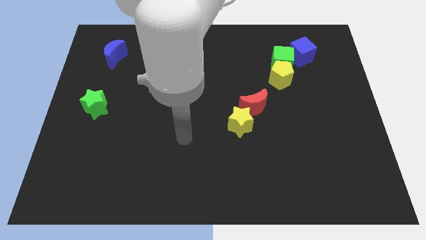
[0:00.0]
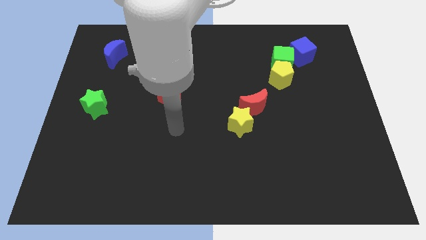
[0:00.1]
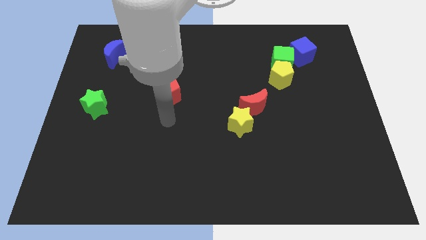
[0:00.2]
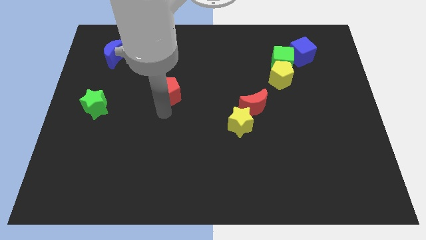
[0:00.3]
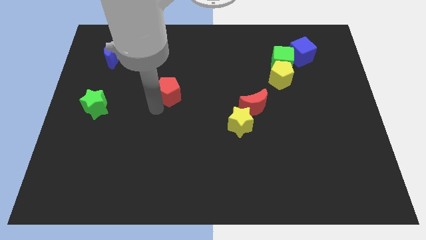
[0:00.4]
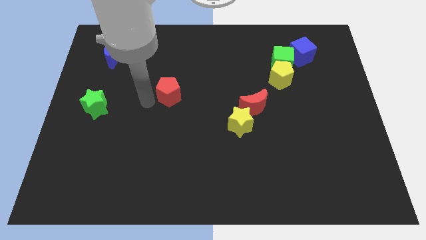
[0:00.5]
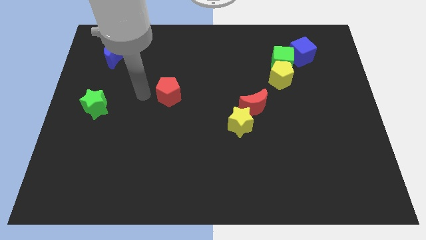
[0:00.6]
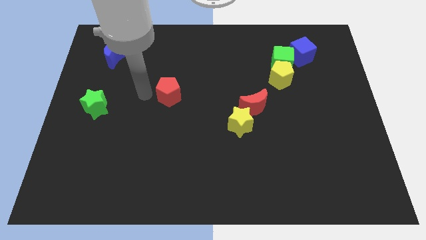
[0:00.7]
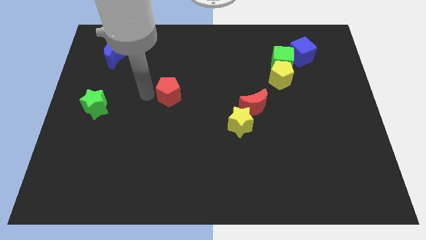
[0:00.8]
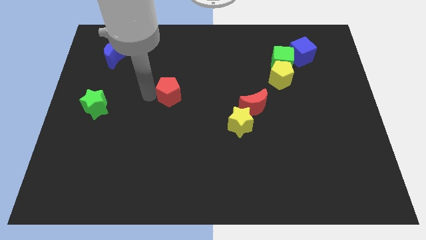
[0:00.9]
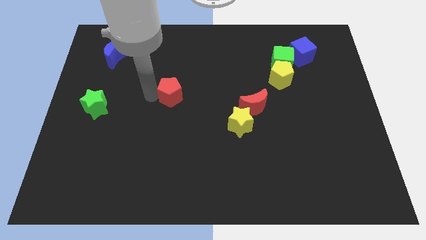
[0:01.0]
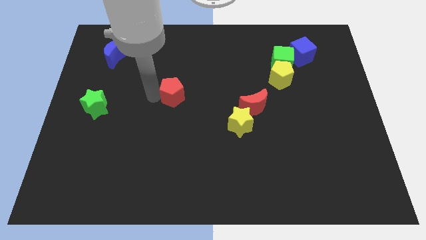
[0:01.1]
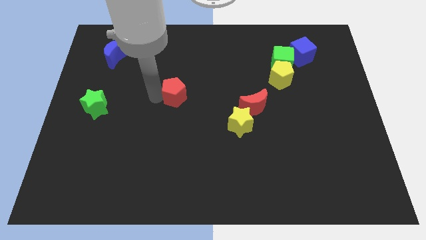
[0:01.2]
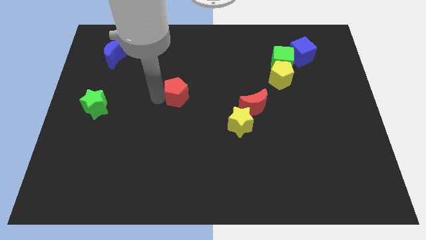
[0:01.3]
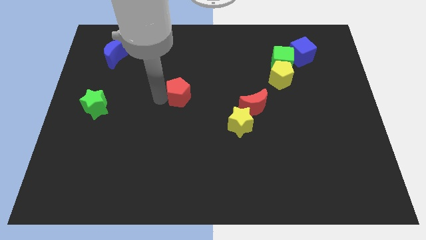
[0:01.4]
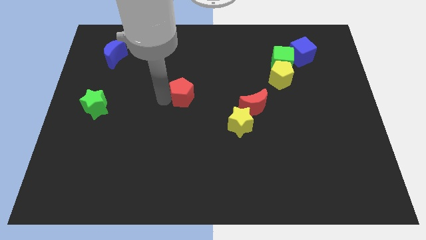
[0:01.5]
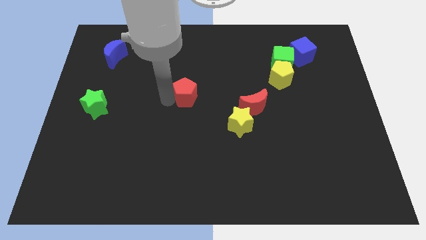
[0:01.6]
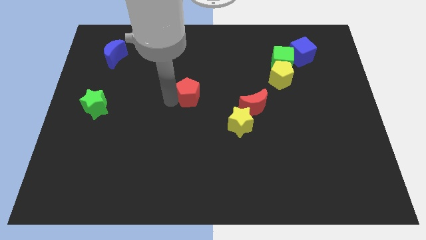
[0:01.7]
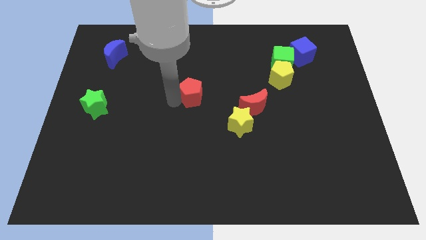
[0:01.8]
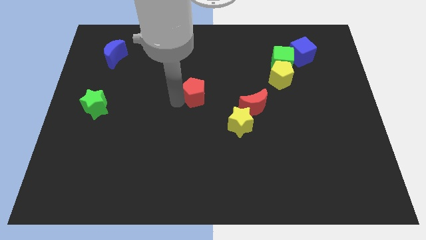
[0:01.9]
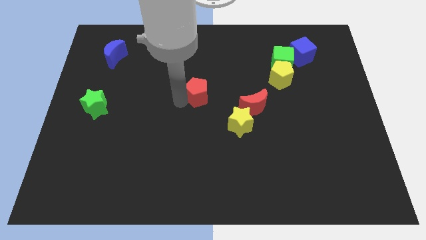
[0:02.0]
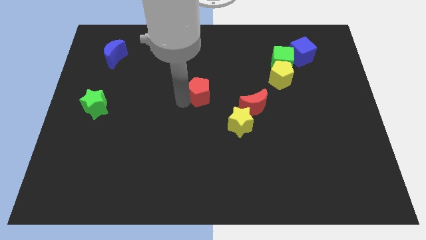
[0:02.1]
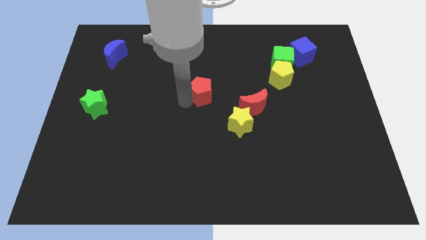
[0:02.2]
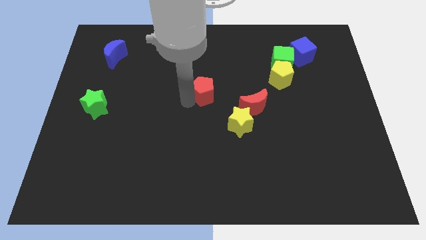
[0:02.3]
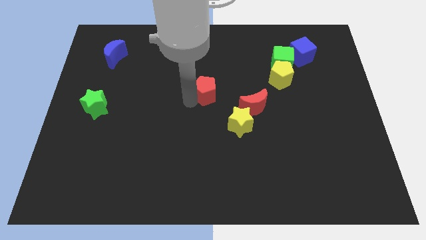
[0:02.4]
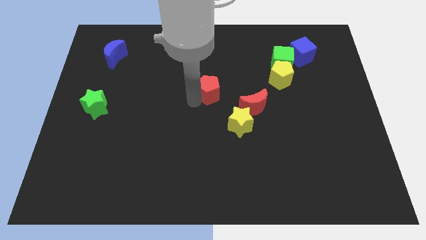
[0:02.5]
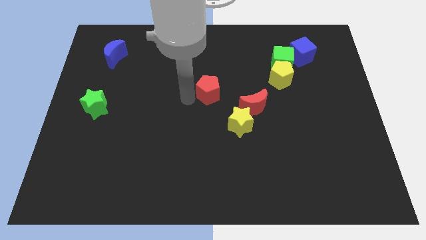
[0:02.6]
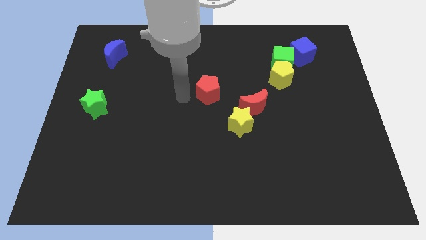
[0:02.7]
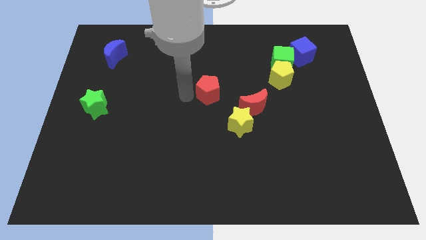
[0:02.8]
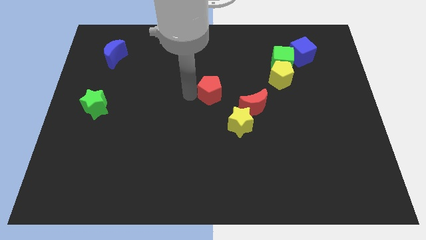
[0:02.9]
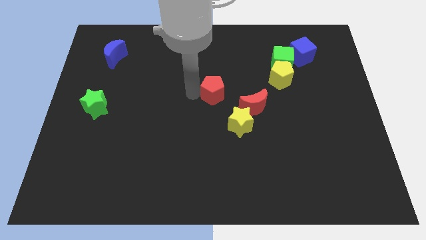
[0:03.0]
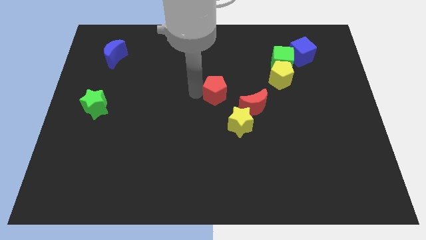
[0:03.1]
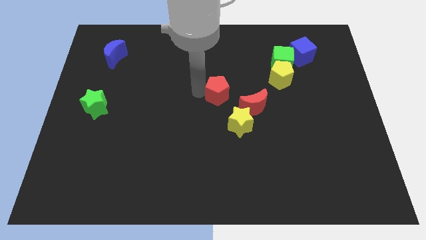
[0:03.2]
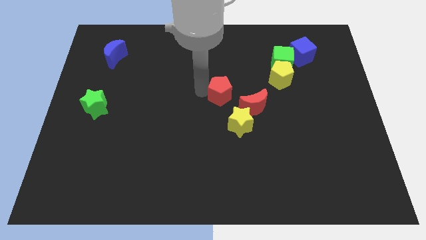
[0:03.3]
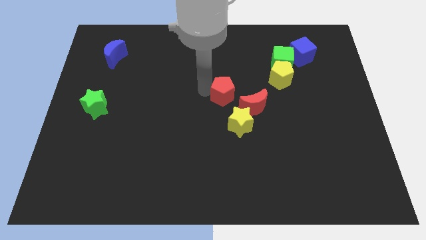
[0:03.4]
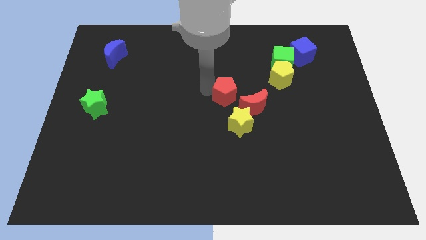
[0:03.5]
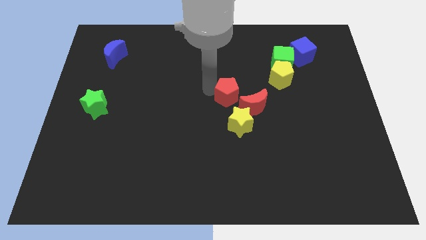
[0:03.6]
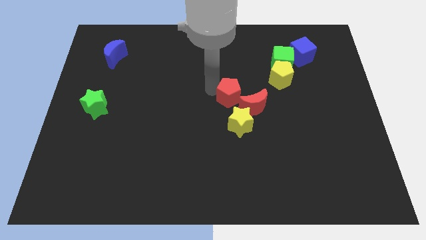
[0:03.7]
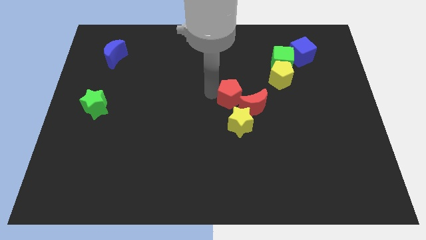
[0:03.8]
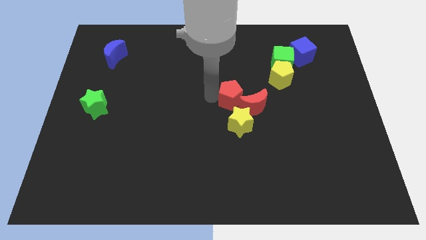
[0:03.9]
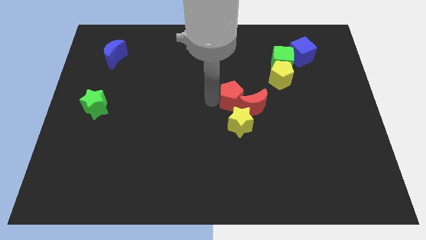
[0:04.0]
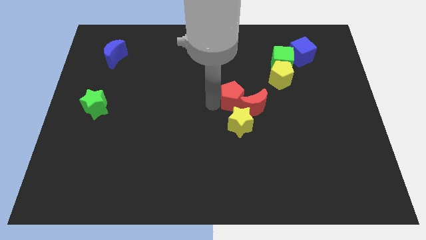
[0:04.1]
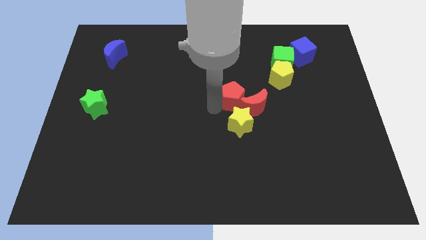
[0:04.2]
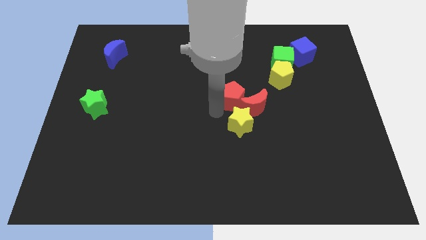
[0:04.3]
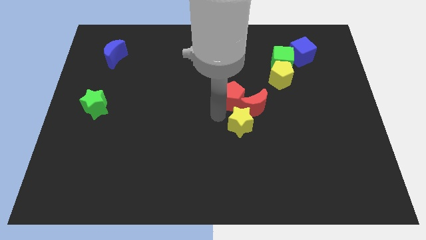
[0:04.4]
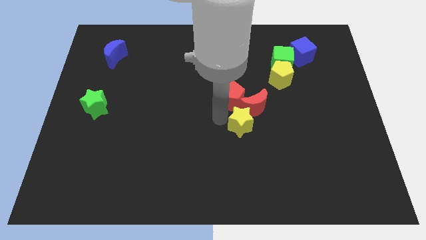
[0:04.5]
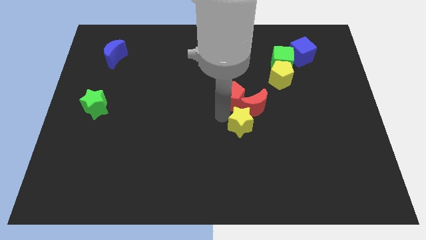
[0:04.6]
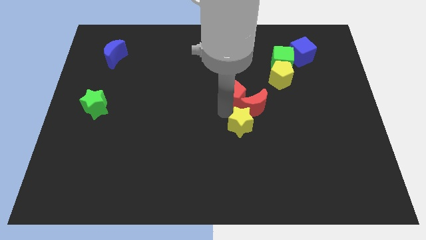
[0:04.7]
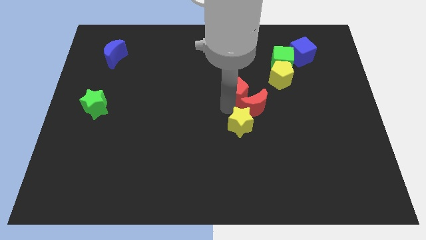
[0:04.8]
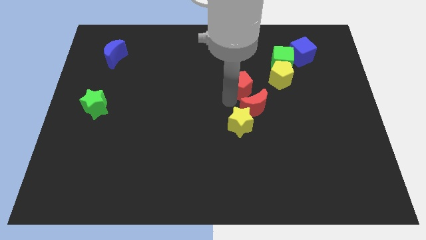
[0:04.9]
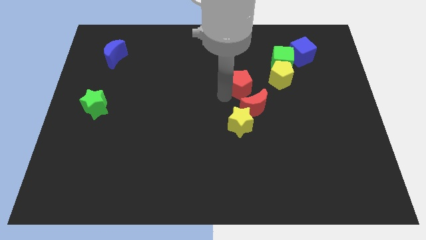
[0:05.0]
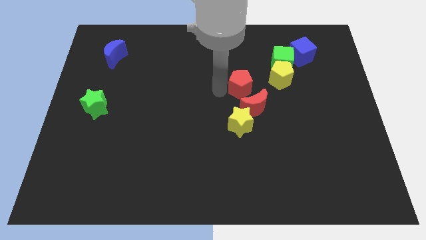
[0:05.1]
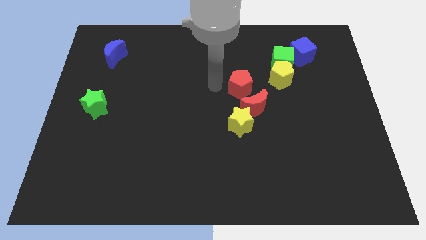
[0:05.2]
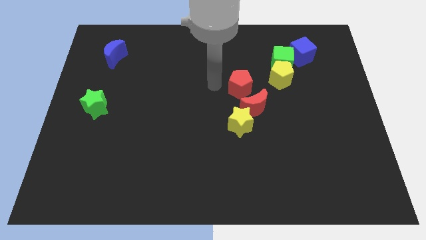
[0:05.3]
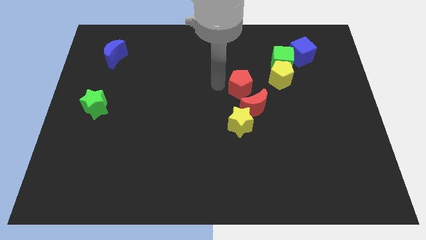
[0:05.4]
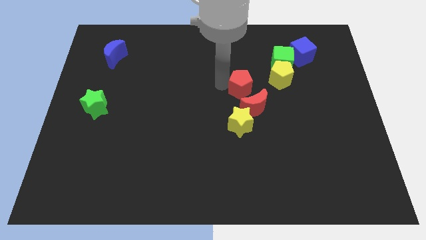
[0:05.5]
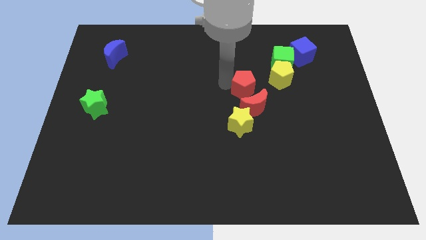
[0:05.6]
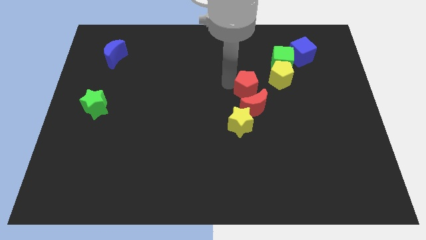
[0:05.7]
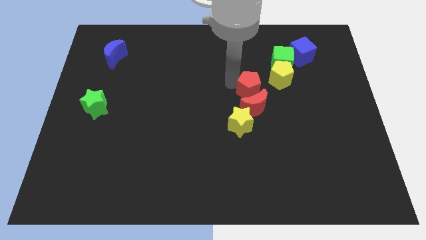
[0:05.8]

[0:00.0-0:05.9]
put the red pentagon to the top right side of the red moon

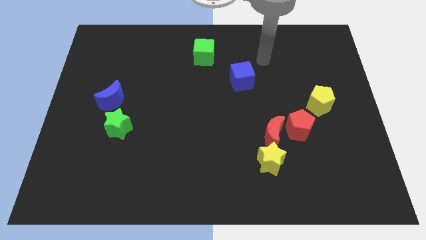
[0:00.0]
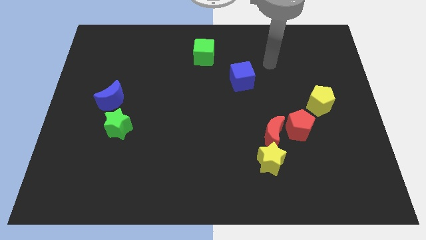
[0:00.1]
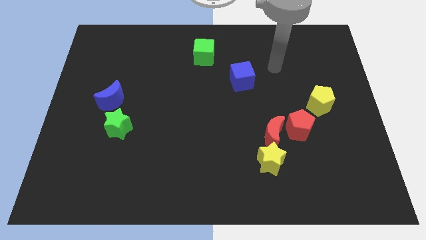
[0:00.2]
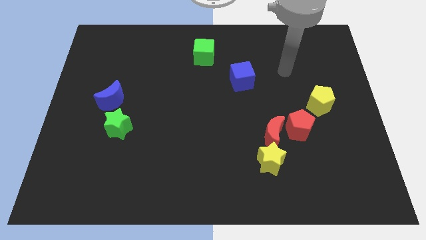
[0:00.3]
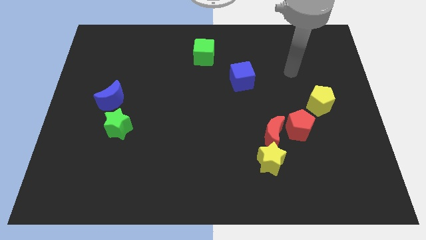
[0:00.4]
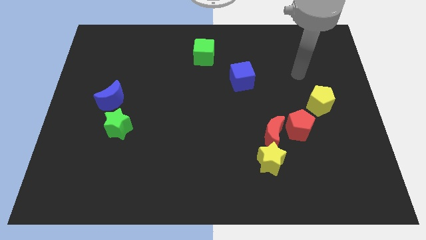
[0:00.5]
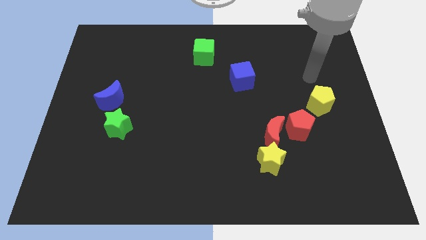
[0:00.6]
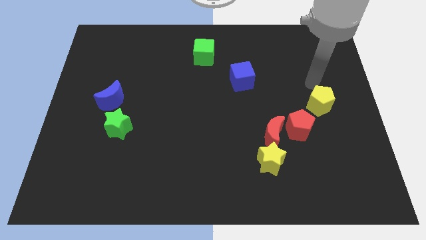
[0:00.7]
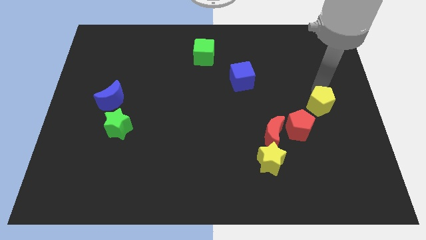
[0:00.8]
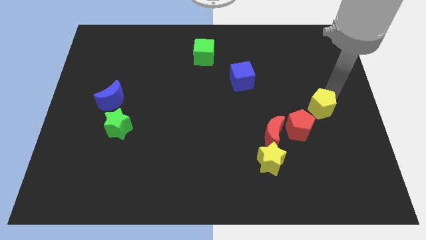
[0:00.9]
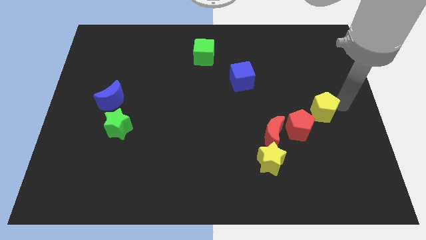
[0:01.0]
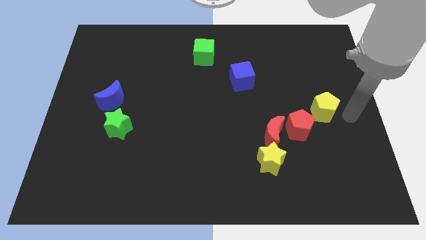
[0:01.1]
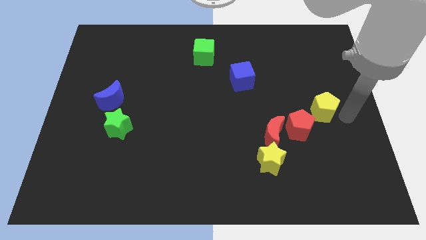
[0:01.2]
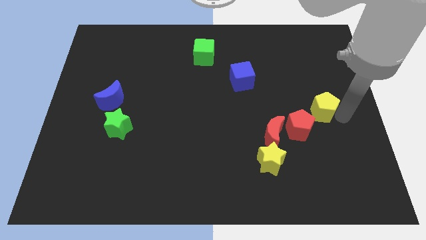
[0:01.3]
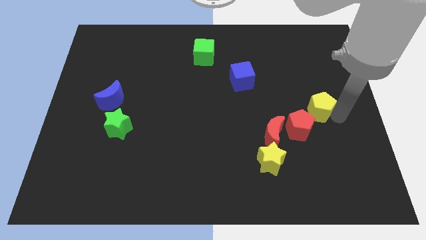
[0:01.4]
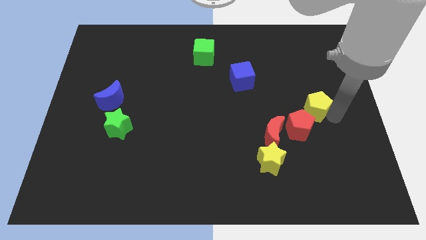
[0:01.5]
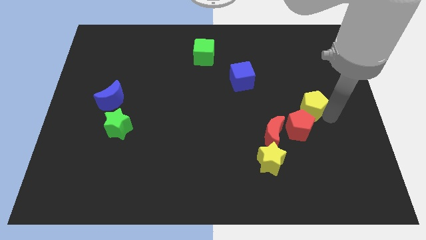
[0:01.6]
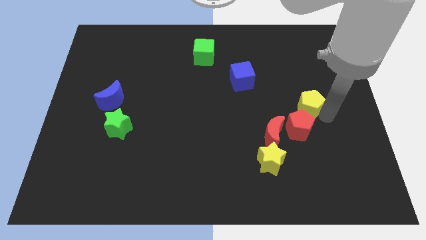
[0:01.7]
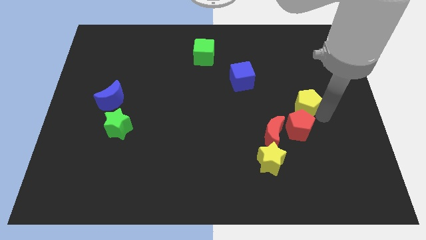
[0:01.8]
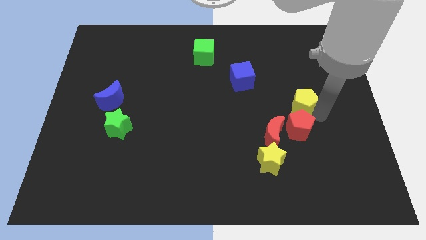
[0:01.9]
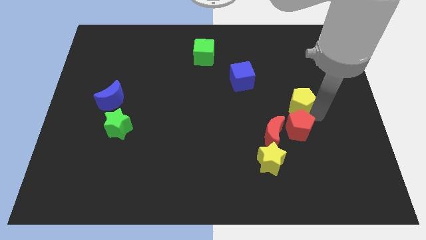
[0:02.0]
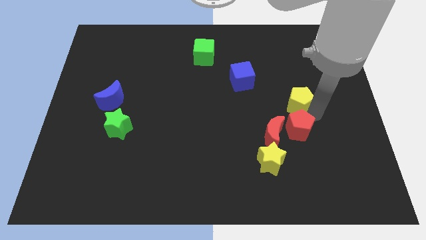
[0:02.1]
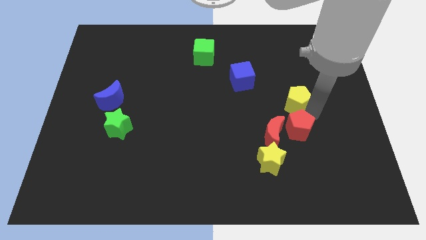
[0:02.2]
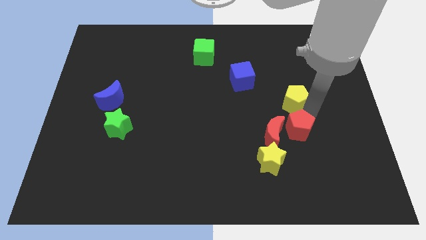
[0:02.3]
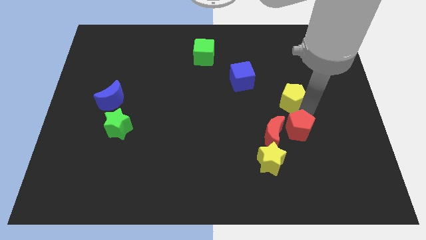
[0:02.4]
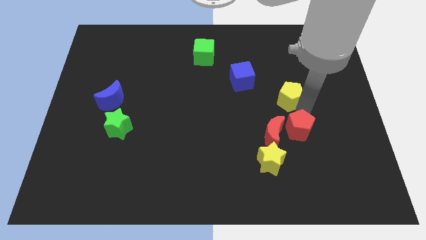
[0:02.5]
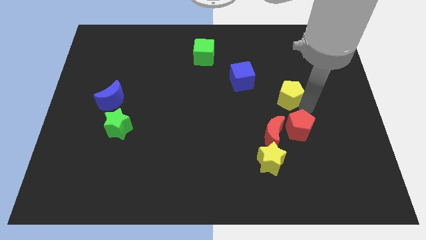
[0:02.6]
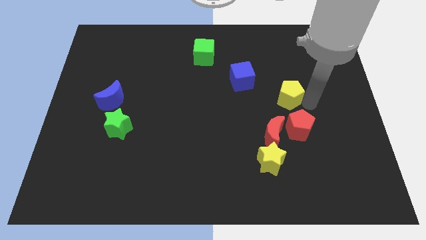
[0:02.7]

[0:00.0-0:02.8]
put the yellow pentagon to the top of the red moon
